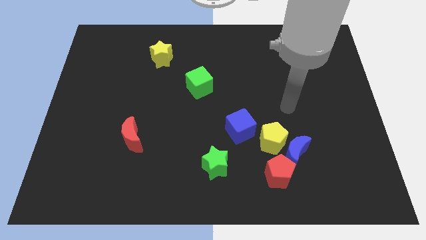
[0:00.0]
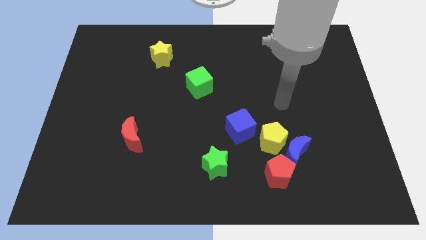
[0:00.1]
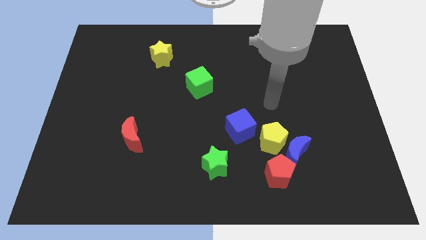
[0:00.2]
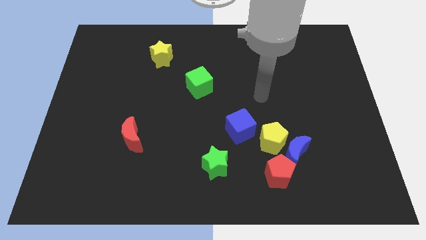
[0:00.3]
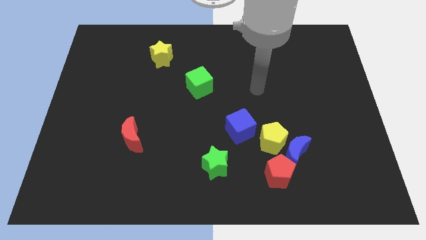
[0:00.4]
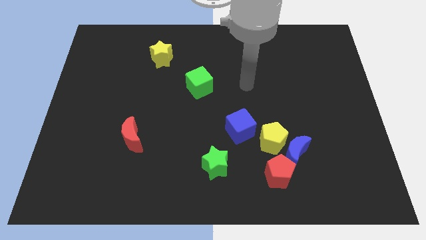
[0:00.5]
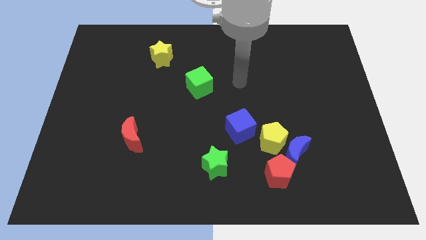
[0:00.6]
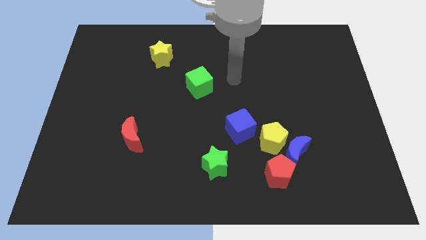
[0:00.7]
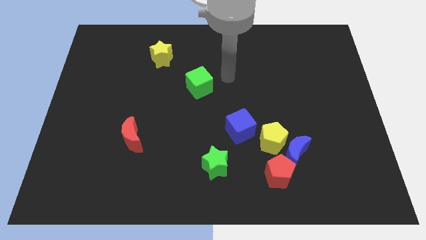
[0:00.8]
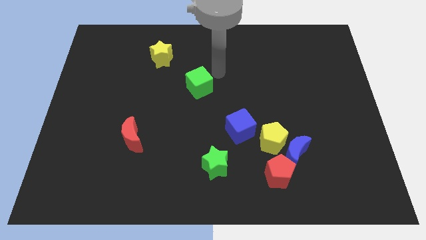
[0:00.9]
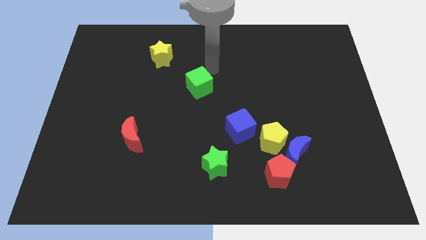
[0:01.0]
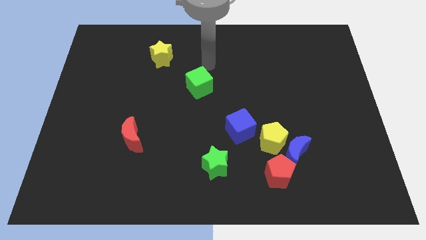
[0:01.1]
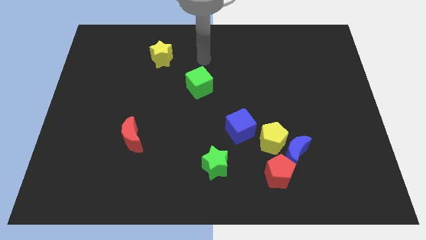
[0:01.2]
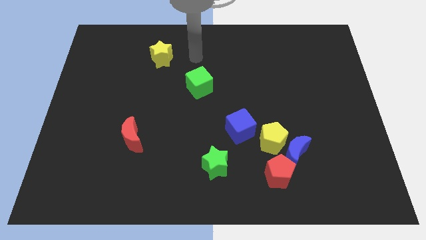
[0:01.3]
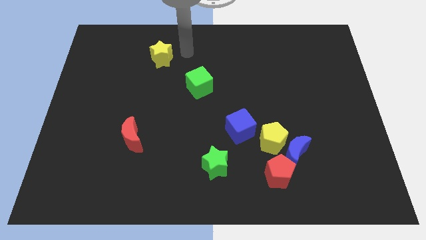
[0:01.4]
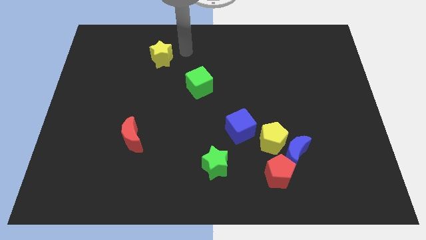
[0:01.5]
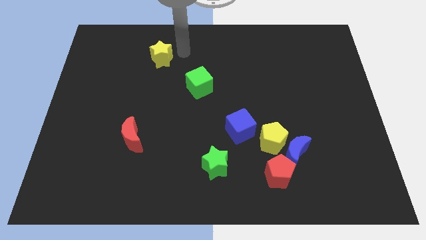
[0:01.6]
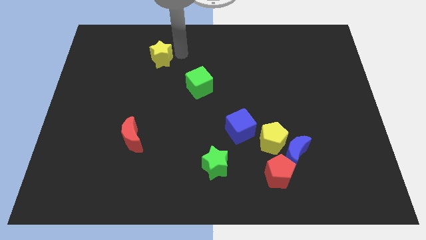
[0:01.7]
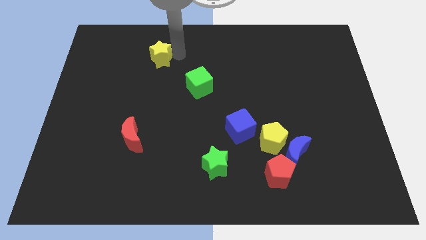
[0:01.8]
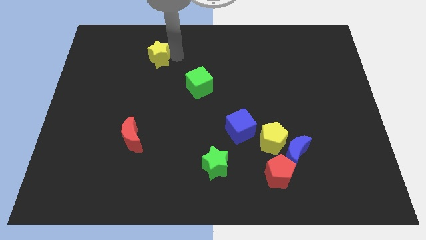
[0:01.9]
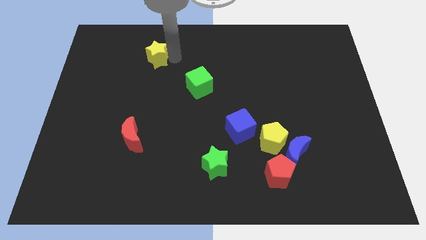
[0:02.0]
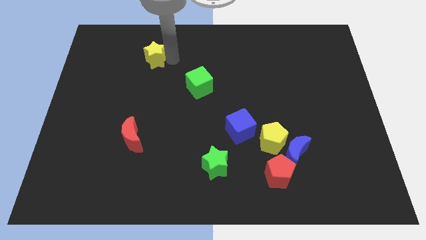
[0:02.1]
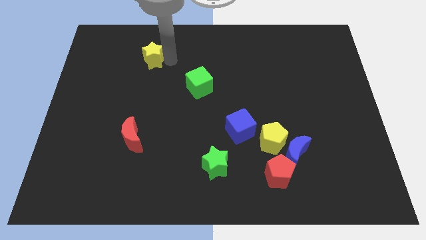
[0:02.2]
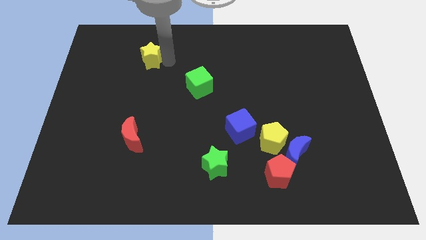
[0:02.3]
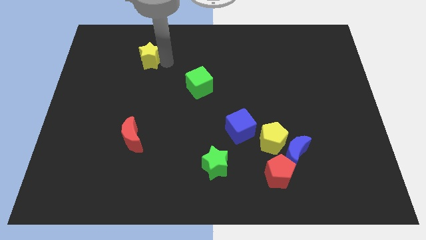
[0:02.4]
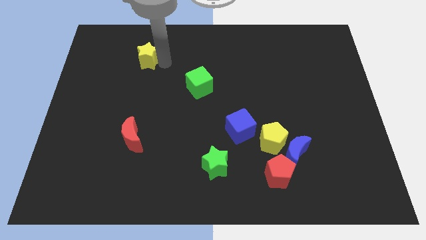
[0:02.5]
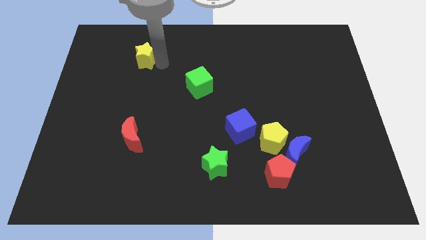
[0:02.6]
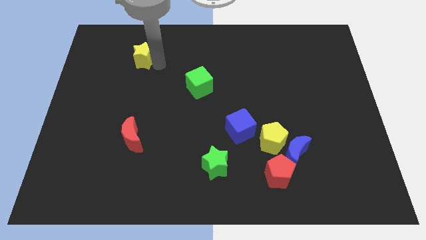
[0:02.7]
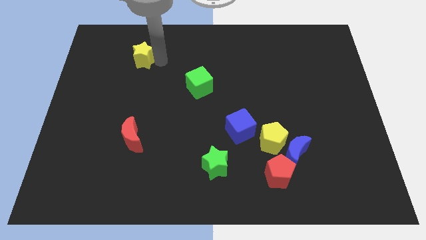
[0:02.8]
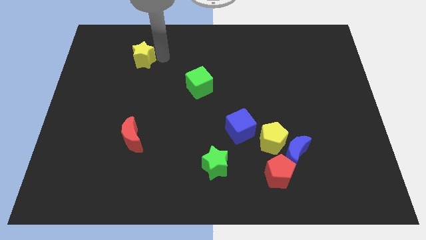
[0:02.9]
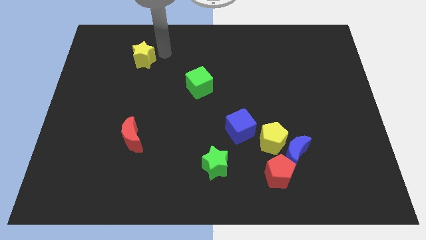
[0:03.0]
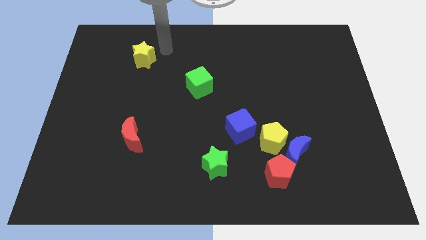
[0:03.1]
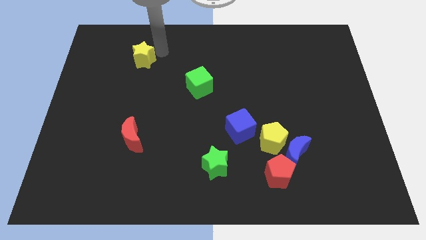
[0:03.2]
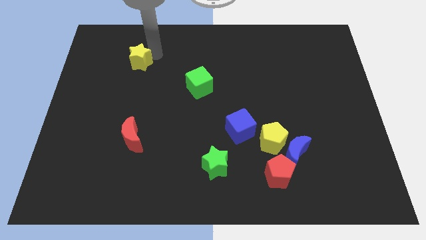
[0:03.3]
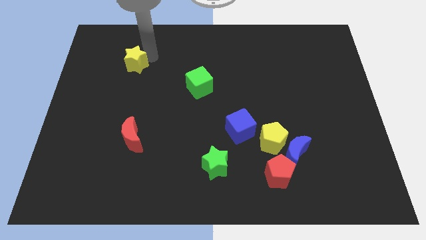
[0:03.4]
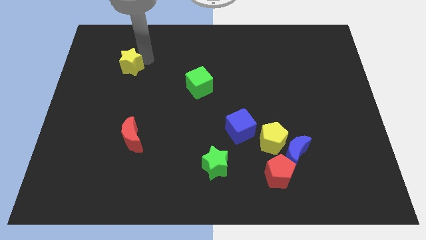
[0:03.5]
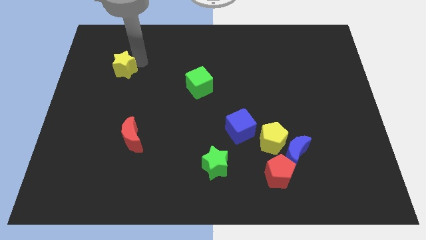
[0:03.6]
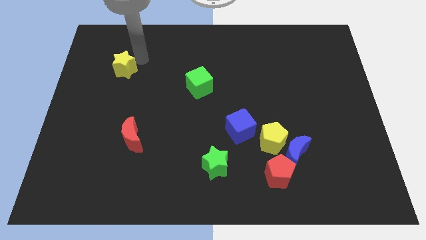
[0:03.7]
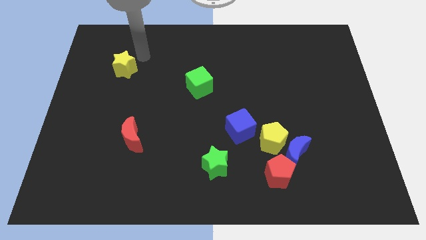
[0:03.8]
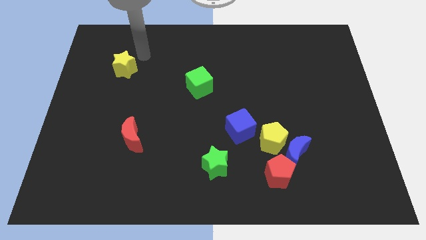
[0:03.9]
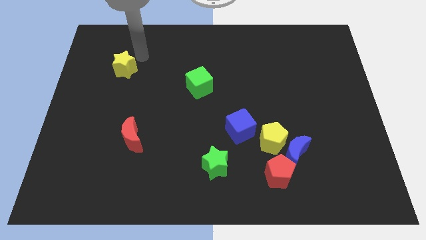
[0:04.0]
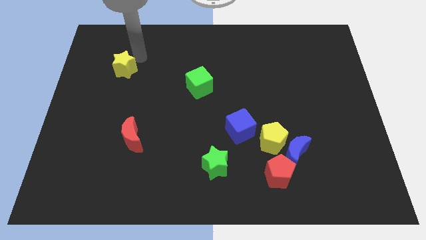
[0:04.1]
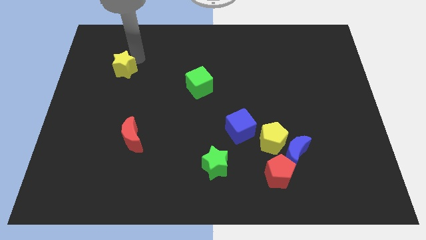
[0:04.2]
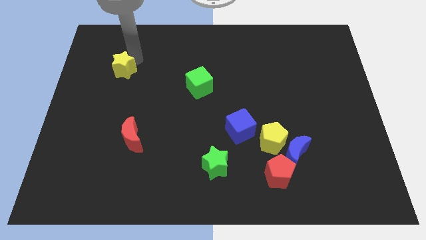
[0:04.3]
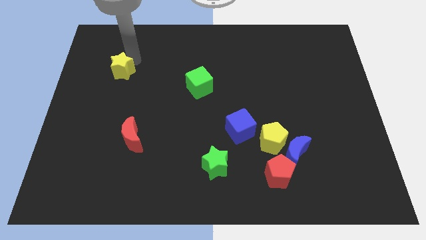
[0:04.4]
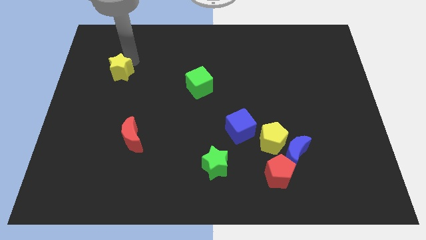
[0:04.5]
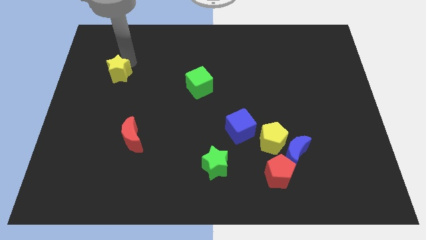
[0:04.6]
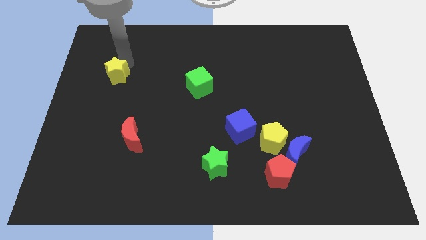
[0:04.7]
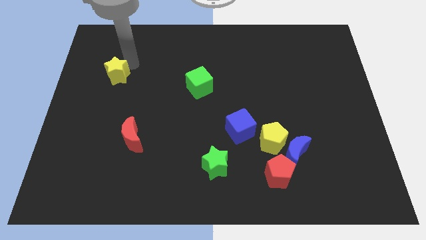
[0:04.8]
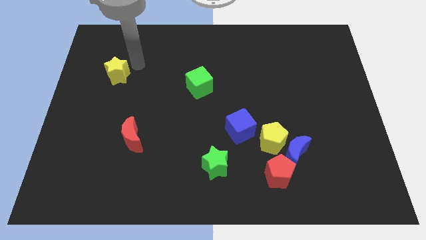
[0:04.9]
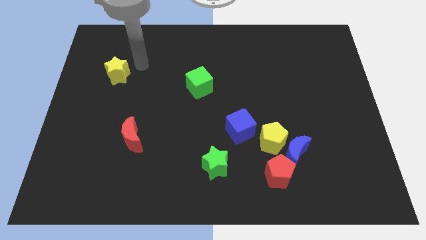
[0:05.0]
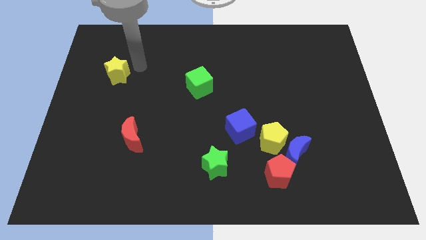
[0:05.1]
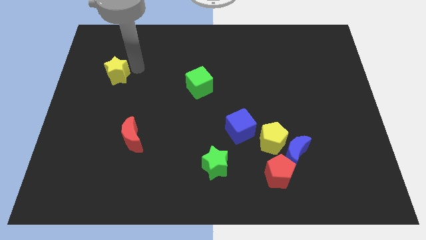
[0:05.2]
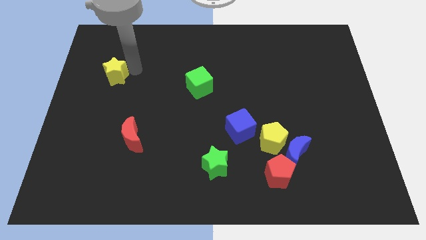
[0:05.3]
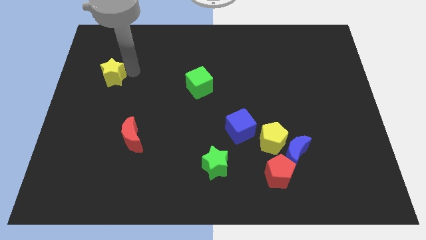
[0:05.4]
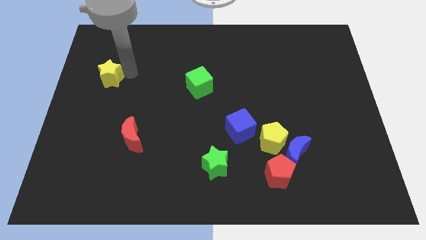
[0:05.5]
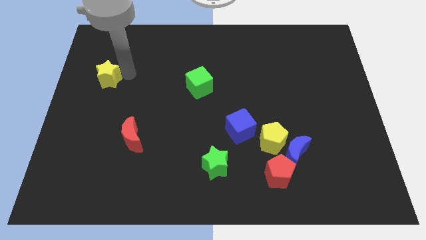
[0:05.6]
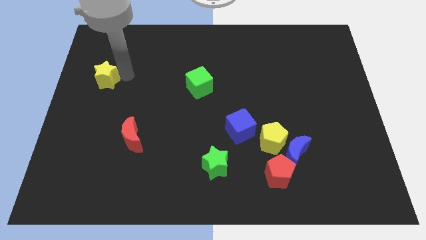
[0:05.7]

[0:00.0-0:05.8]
put the yellow star to the center left

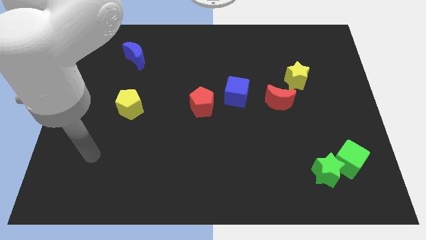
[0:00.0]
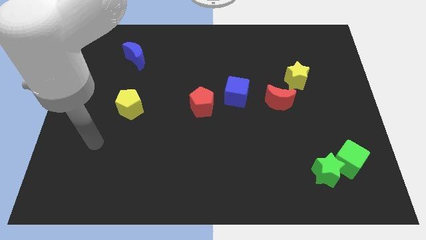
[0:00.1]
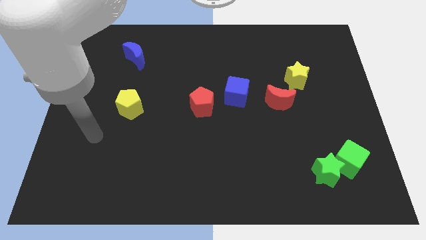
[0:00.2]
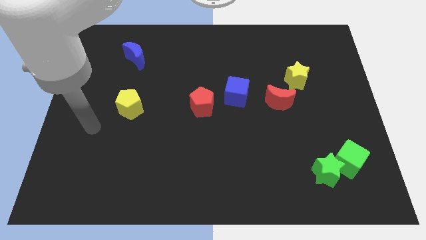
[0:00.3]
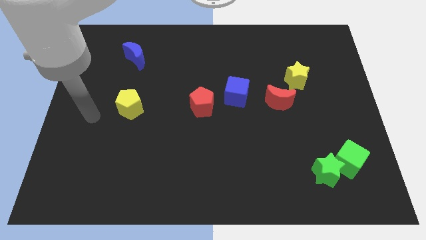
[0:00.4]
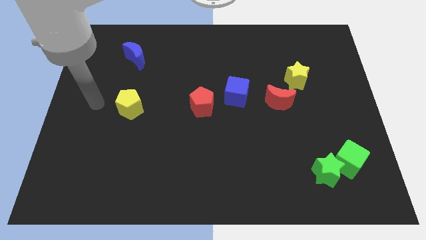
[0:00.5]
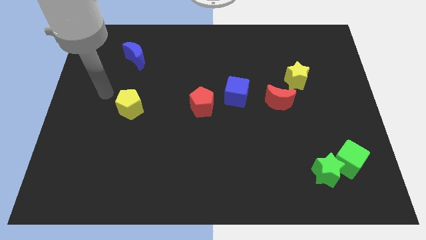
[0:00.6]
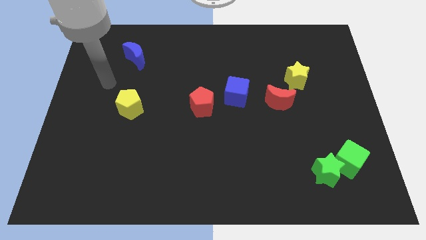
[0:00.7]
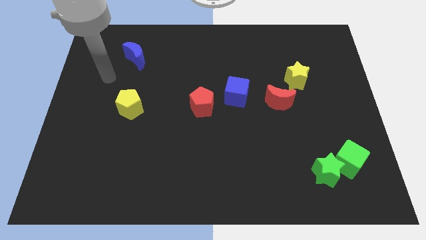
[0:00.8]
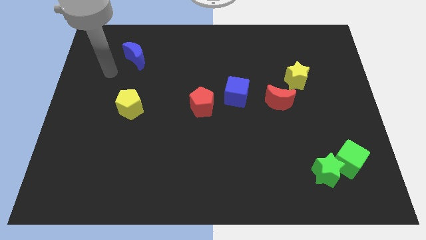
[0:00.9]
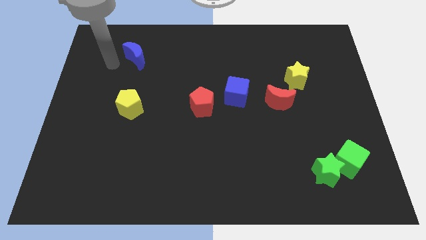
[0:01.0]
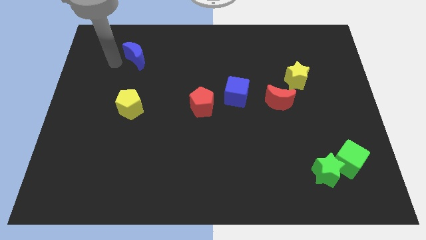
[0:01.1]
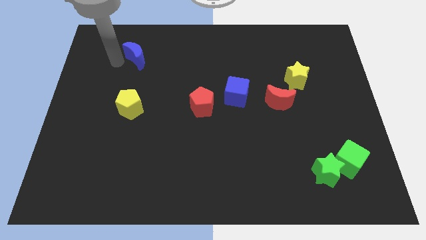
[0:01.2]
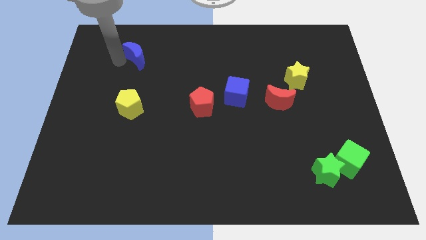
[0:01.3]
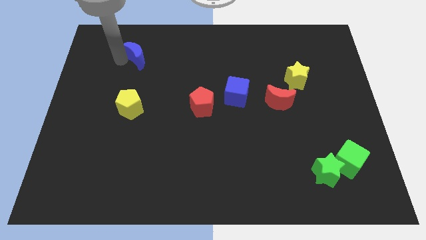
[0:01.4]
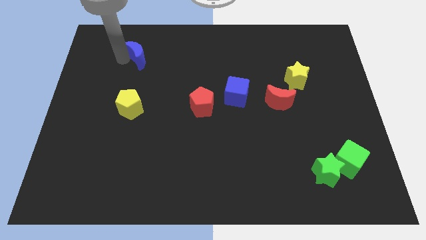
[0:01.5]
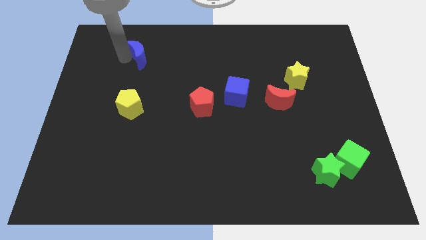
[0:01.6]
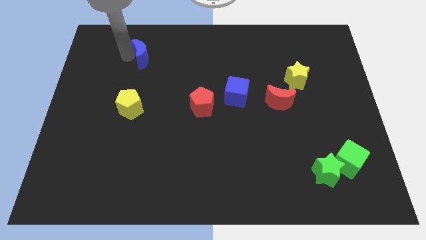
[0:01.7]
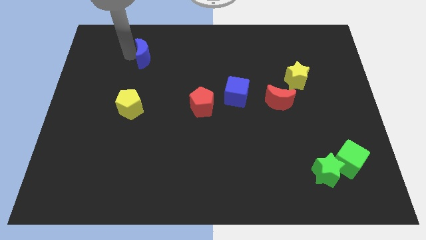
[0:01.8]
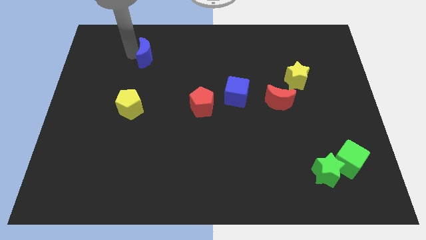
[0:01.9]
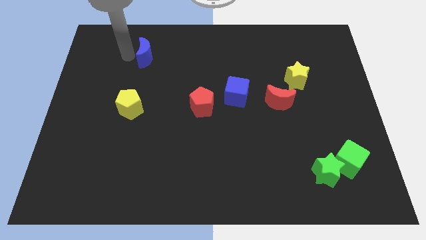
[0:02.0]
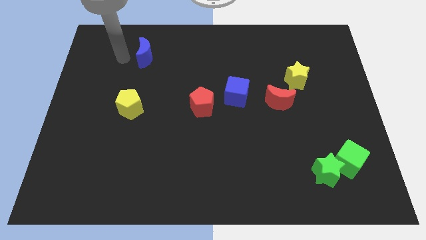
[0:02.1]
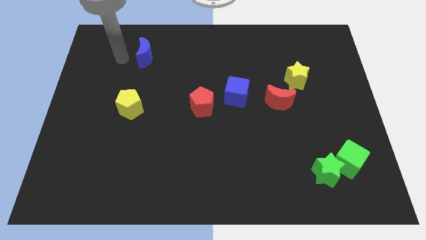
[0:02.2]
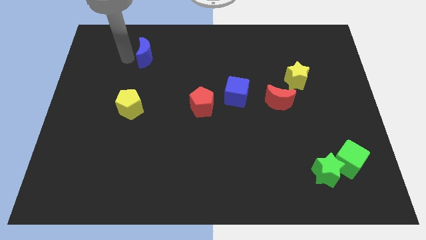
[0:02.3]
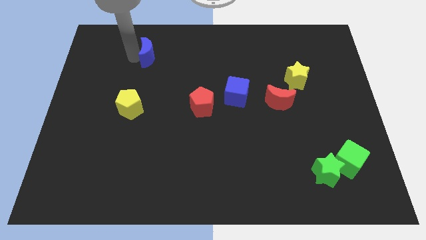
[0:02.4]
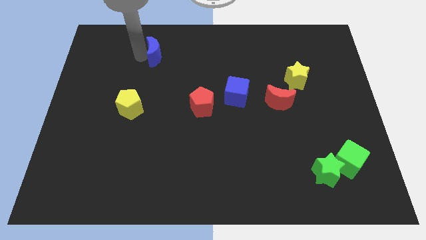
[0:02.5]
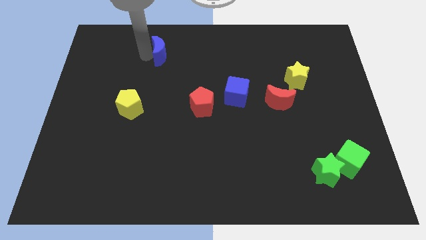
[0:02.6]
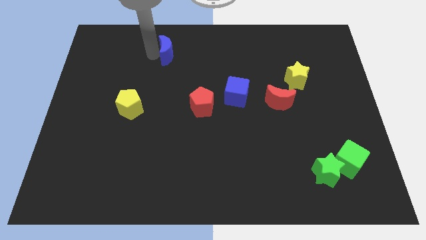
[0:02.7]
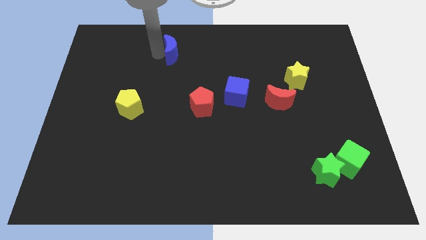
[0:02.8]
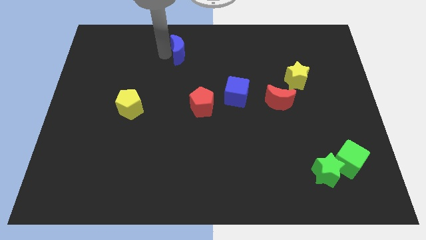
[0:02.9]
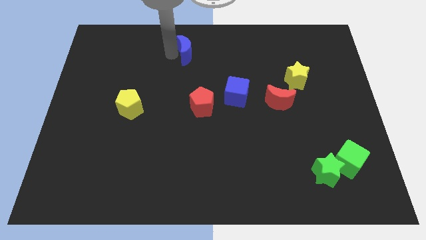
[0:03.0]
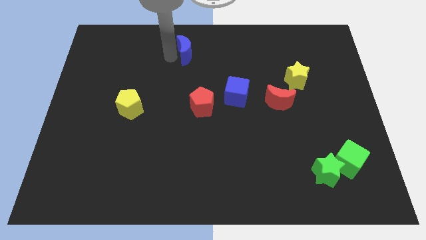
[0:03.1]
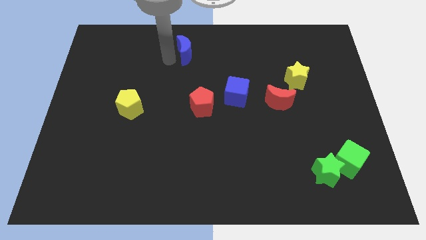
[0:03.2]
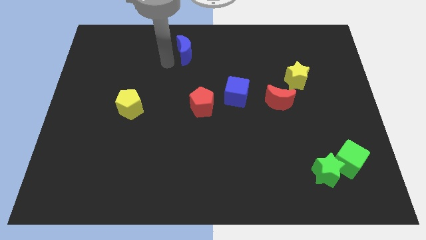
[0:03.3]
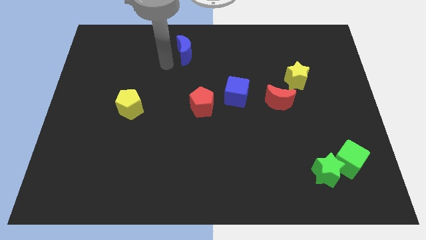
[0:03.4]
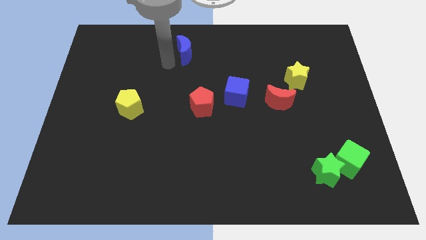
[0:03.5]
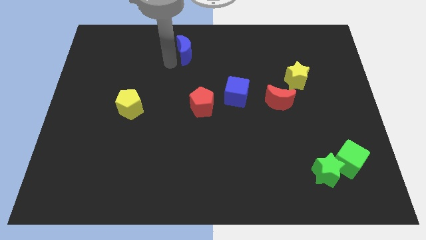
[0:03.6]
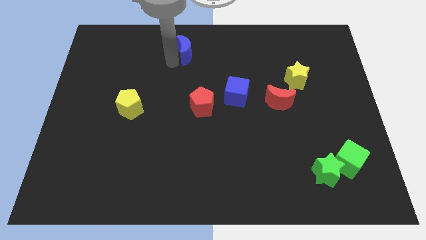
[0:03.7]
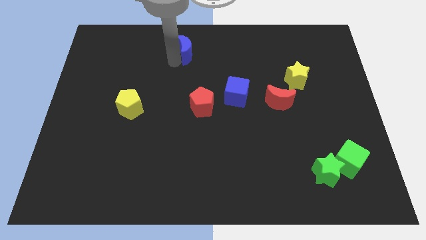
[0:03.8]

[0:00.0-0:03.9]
put the blue moon to the top
